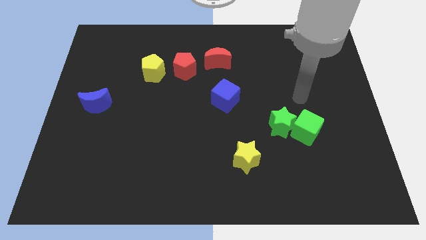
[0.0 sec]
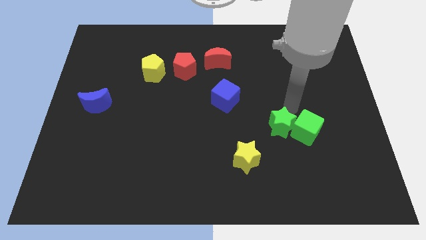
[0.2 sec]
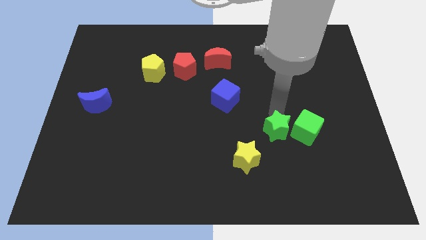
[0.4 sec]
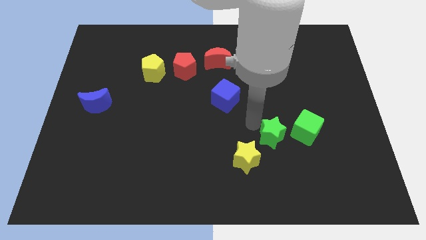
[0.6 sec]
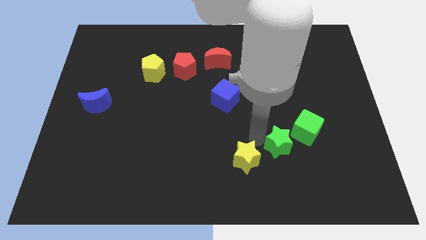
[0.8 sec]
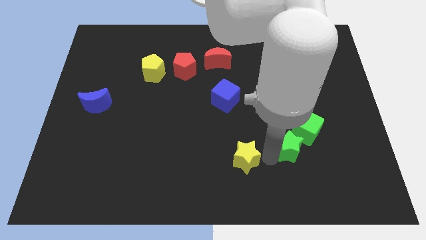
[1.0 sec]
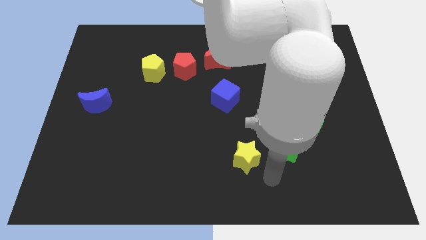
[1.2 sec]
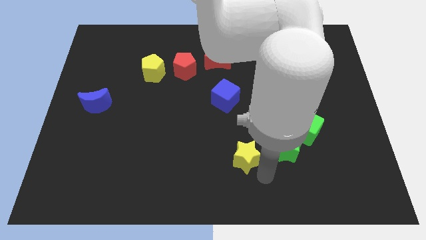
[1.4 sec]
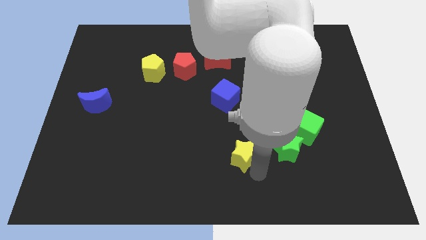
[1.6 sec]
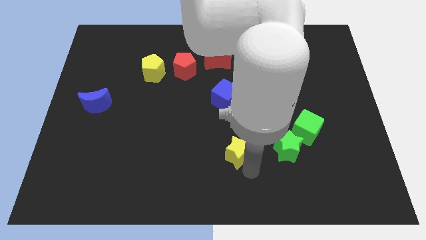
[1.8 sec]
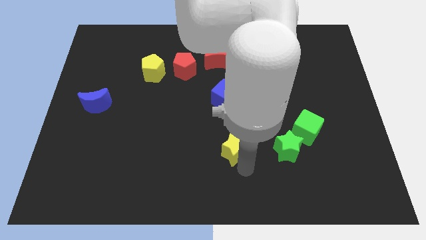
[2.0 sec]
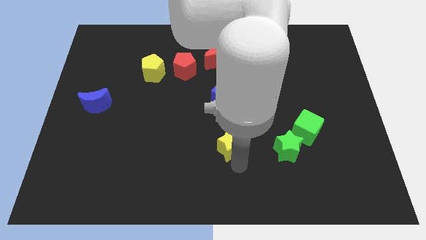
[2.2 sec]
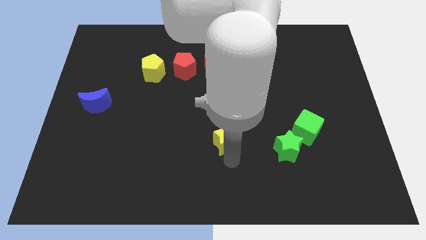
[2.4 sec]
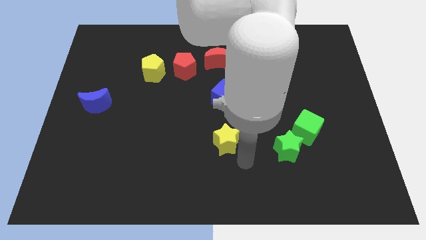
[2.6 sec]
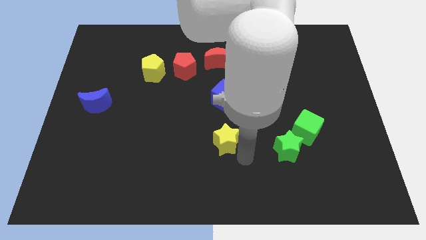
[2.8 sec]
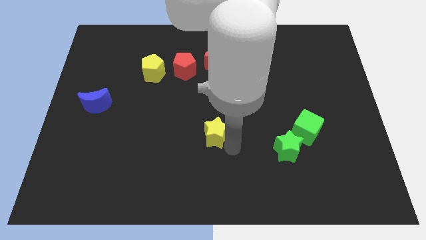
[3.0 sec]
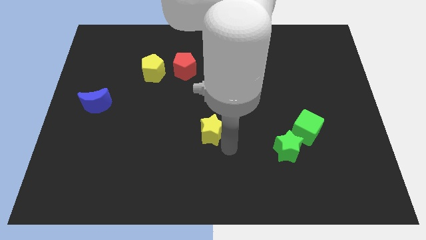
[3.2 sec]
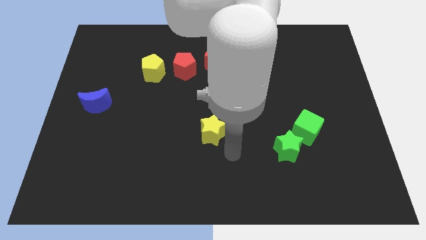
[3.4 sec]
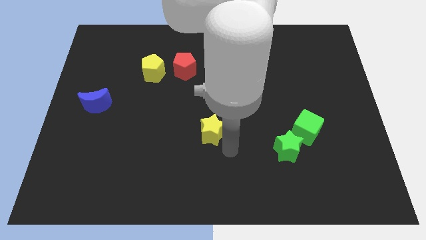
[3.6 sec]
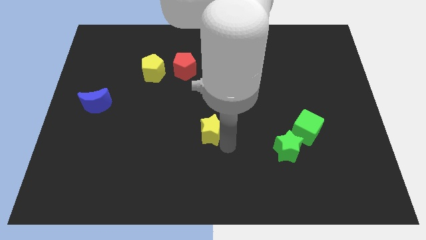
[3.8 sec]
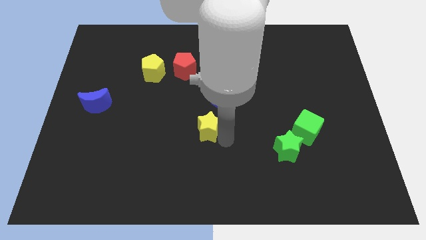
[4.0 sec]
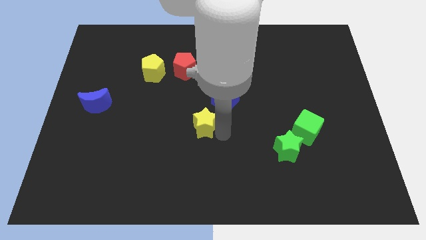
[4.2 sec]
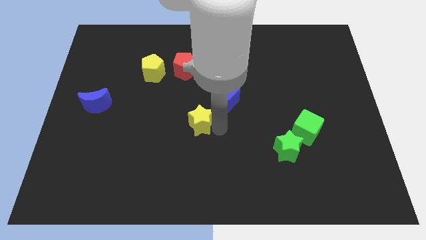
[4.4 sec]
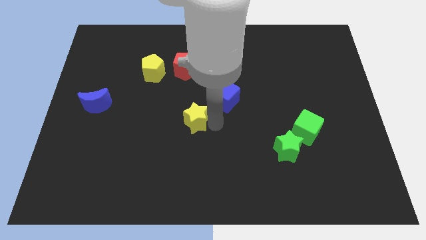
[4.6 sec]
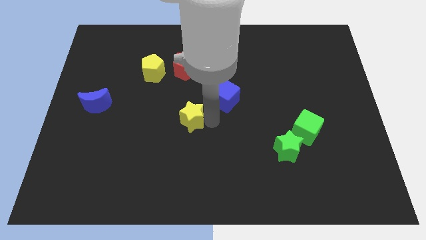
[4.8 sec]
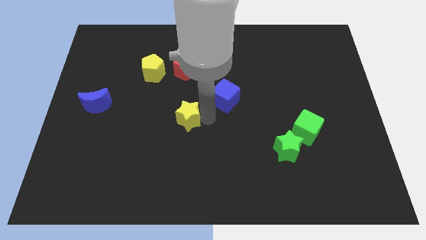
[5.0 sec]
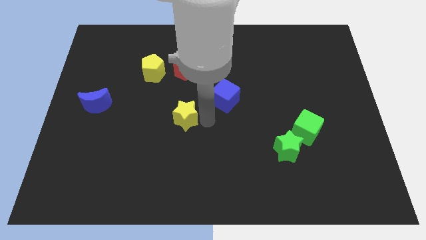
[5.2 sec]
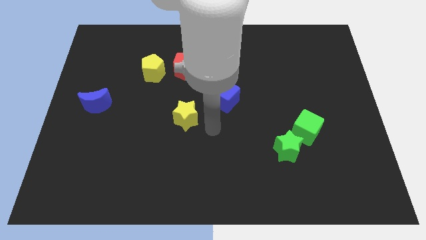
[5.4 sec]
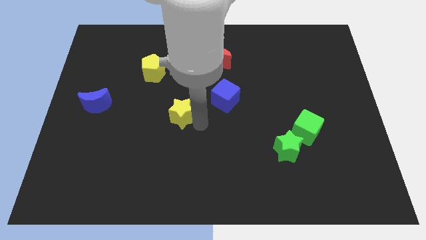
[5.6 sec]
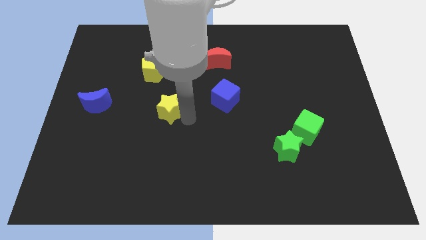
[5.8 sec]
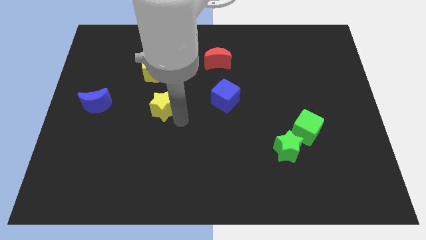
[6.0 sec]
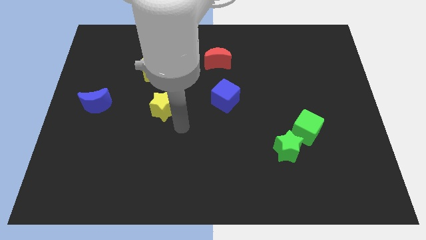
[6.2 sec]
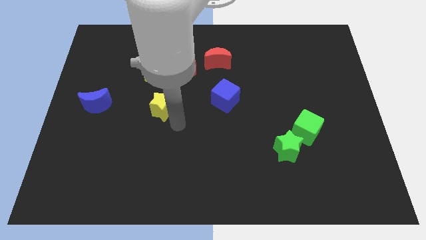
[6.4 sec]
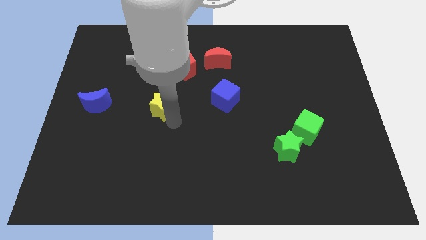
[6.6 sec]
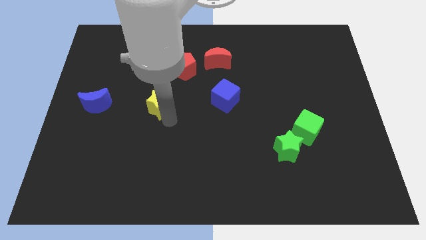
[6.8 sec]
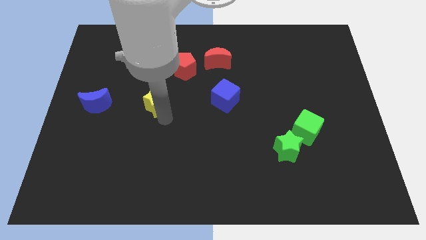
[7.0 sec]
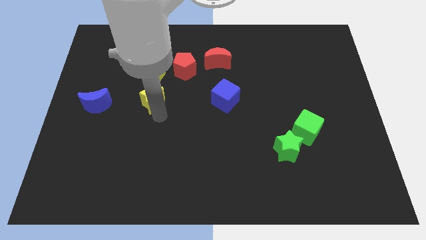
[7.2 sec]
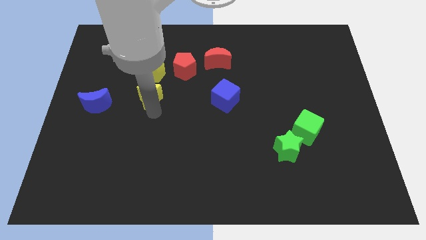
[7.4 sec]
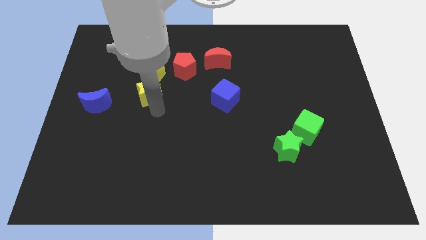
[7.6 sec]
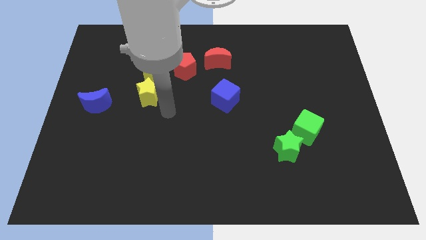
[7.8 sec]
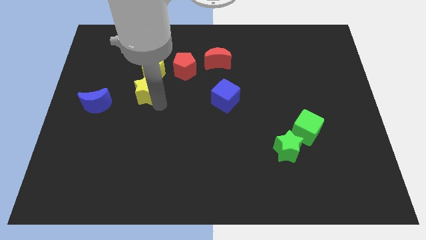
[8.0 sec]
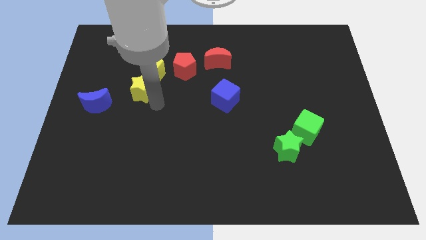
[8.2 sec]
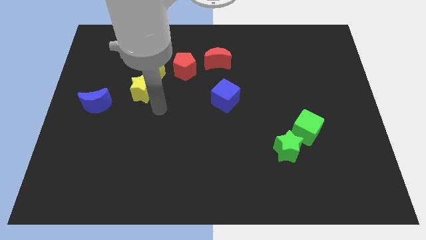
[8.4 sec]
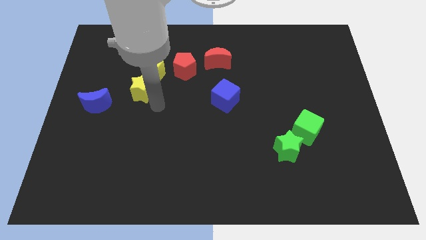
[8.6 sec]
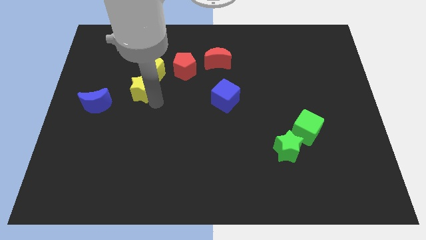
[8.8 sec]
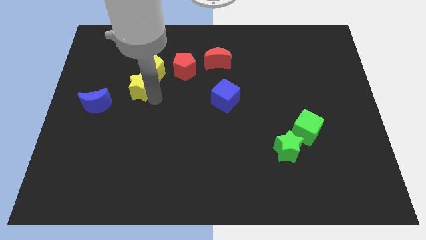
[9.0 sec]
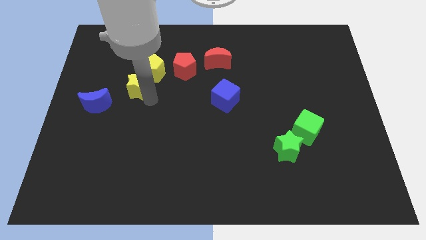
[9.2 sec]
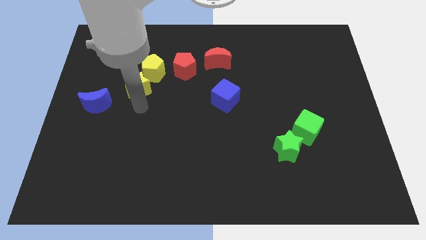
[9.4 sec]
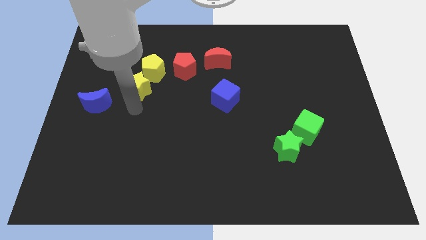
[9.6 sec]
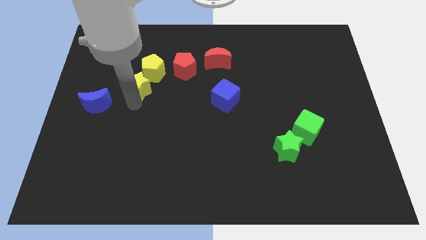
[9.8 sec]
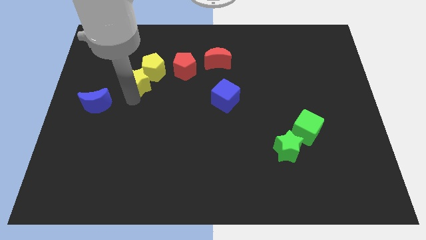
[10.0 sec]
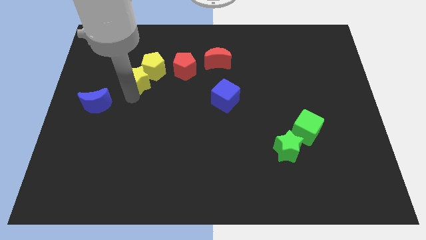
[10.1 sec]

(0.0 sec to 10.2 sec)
slide the yellow star to the left of the red pentagon

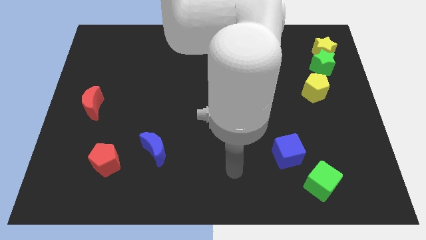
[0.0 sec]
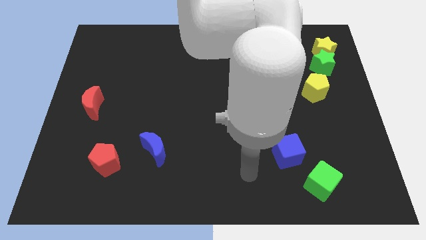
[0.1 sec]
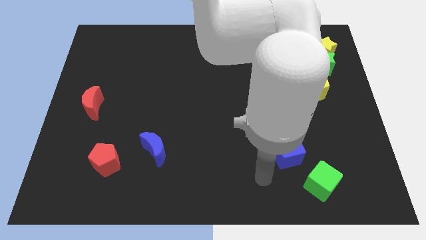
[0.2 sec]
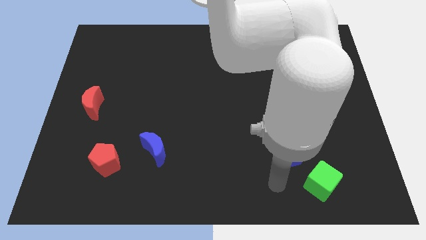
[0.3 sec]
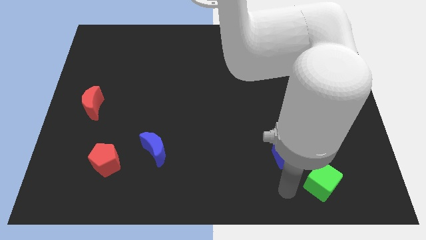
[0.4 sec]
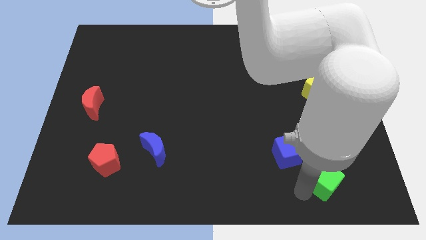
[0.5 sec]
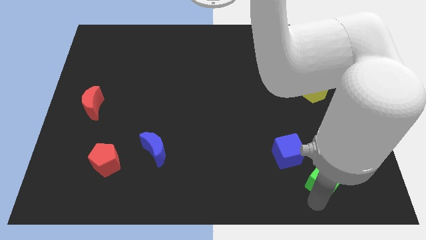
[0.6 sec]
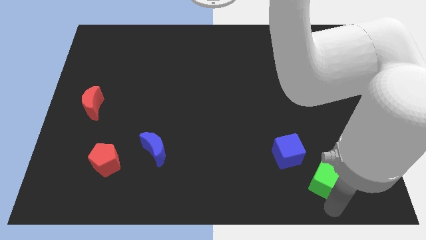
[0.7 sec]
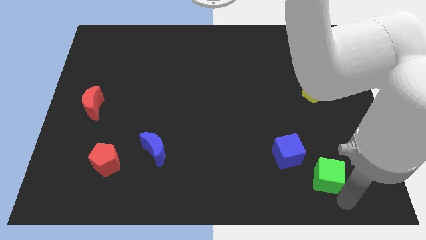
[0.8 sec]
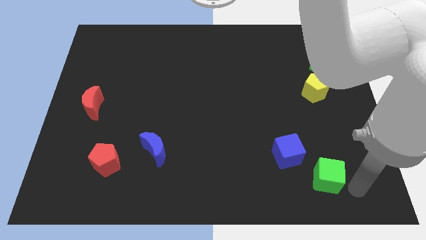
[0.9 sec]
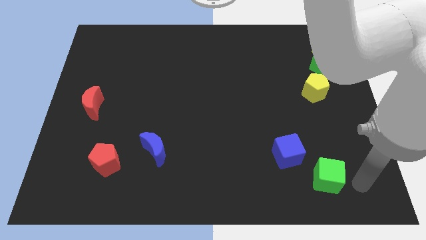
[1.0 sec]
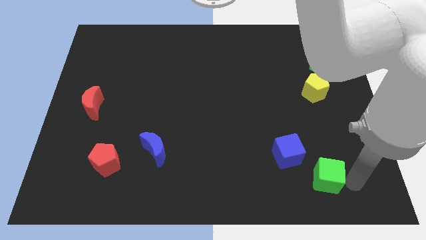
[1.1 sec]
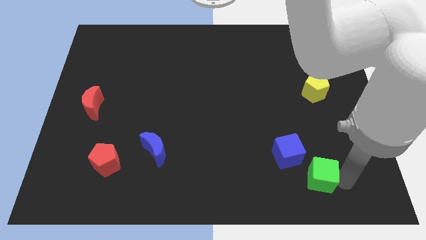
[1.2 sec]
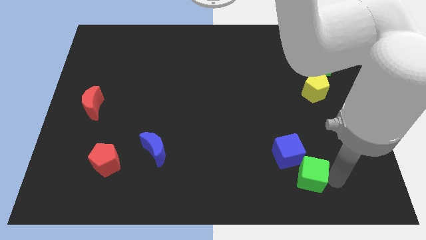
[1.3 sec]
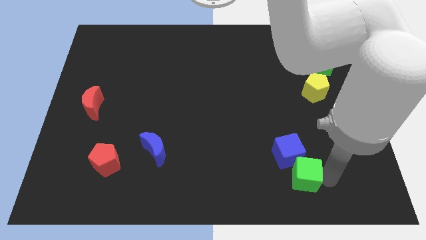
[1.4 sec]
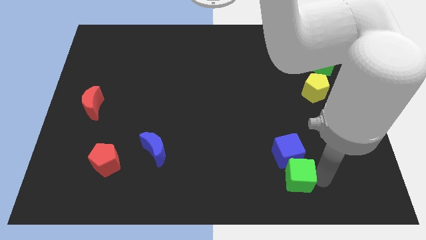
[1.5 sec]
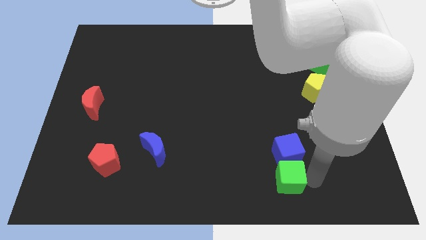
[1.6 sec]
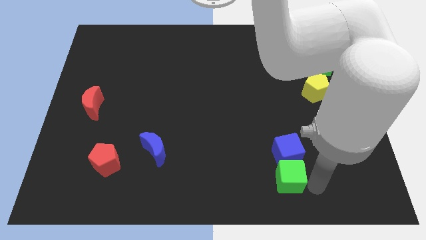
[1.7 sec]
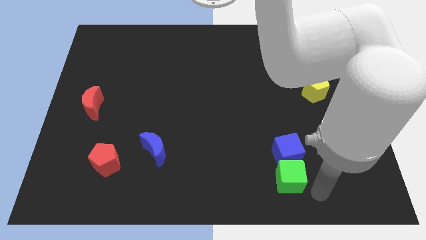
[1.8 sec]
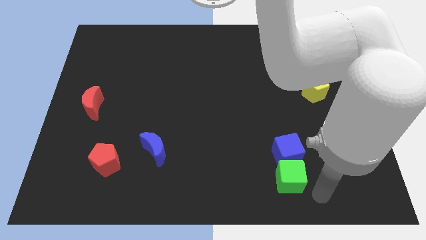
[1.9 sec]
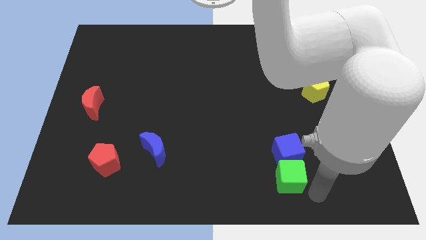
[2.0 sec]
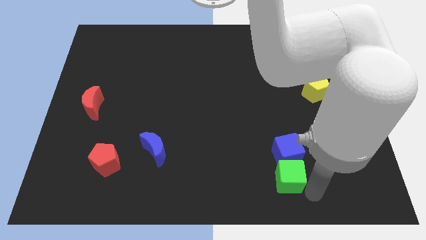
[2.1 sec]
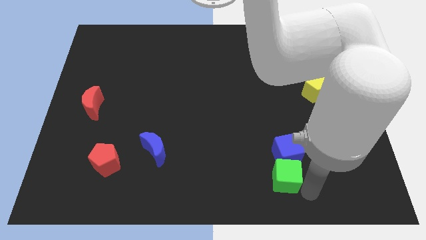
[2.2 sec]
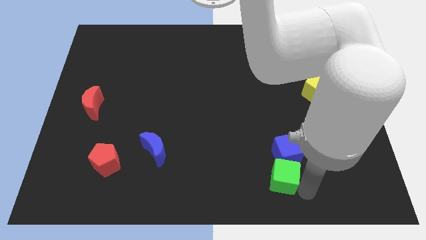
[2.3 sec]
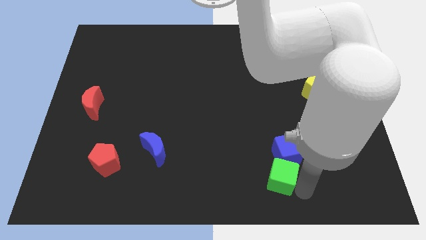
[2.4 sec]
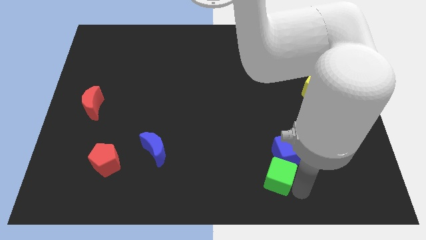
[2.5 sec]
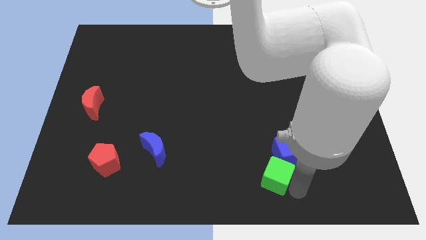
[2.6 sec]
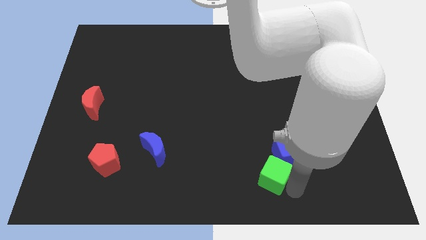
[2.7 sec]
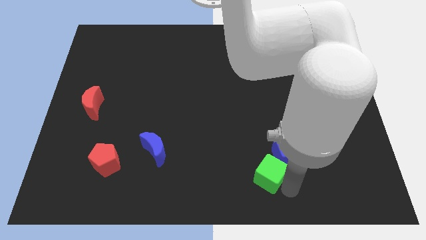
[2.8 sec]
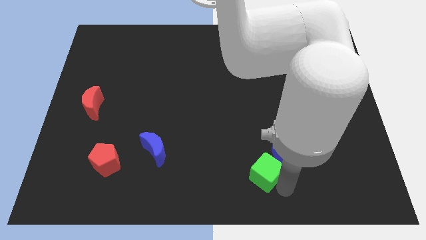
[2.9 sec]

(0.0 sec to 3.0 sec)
push the green cube to the left of the blue cube
